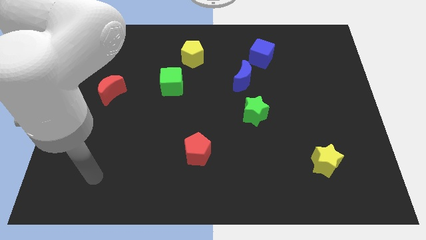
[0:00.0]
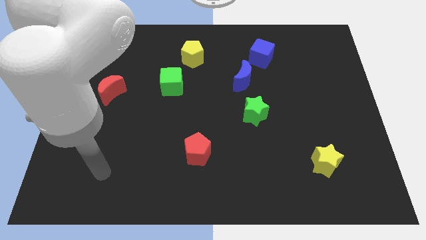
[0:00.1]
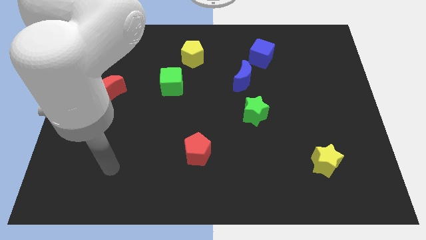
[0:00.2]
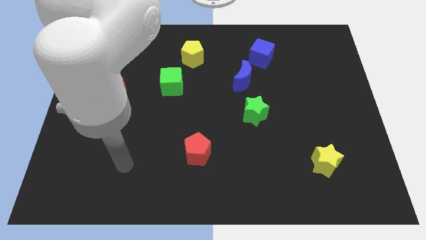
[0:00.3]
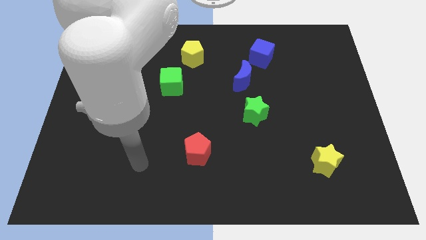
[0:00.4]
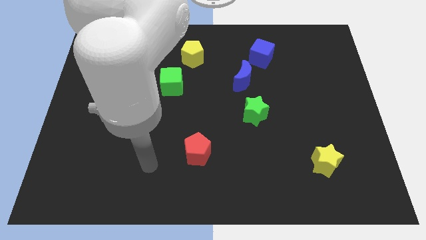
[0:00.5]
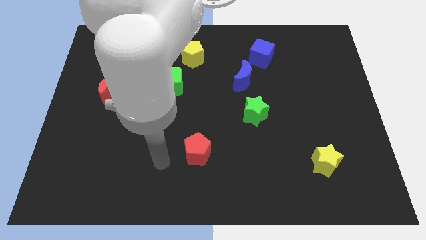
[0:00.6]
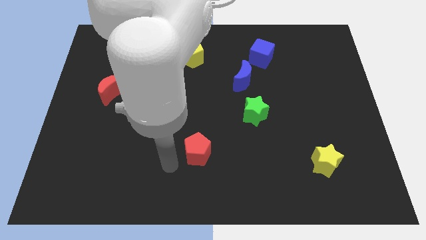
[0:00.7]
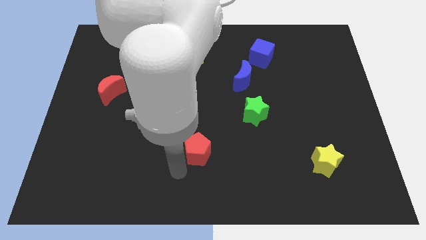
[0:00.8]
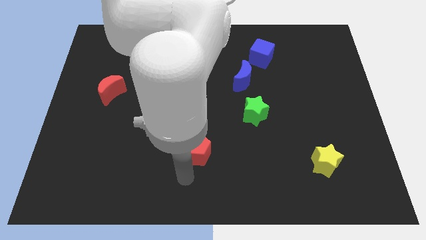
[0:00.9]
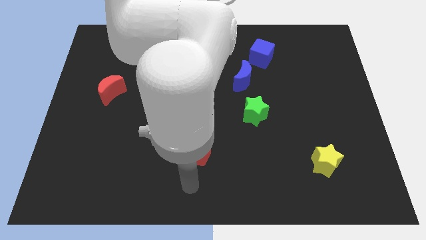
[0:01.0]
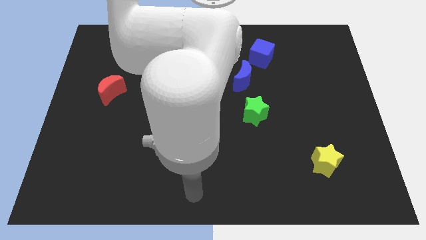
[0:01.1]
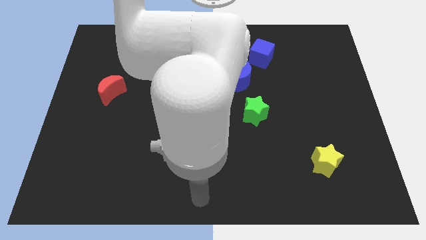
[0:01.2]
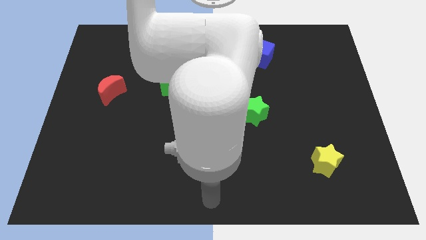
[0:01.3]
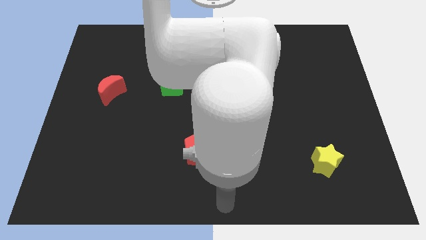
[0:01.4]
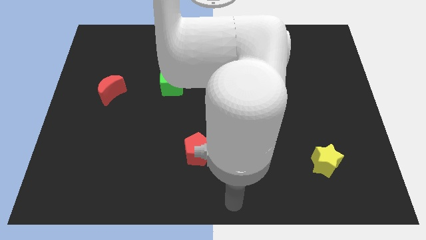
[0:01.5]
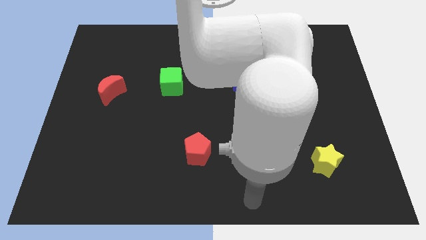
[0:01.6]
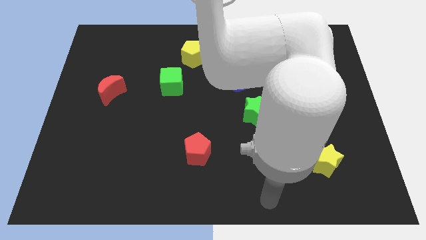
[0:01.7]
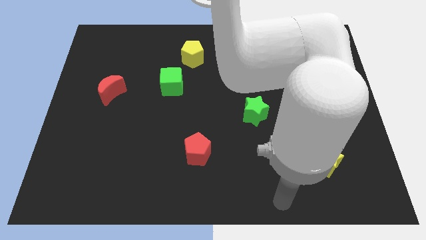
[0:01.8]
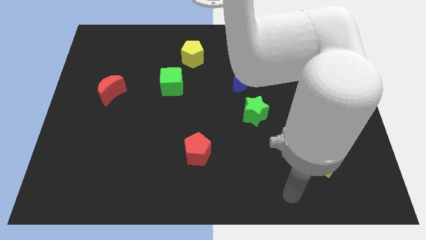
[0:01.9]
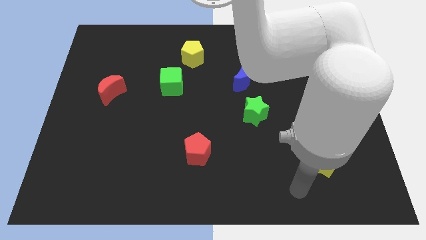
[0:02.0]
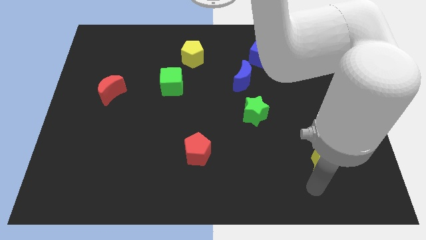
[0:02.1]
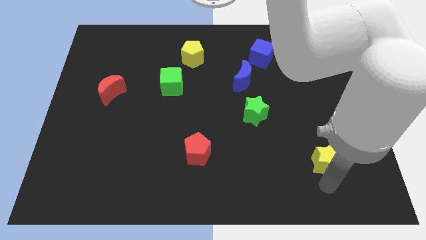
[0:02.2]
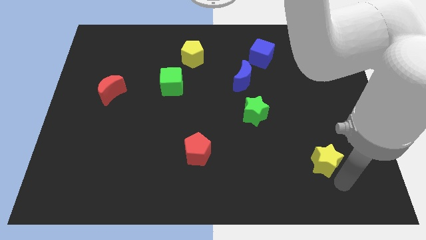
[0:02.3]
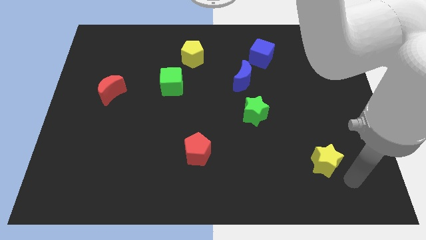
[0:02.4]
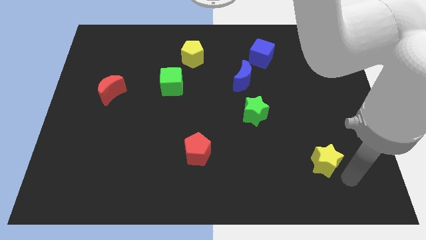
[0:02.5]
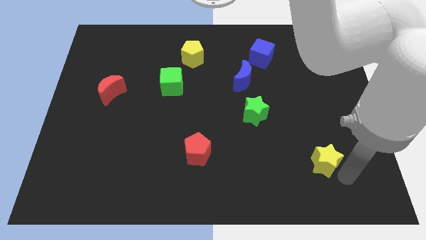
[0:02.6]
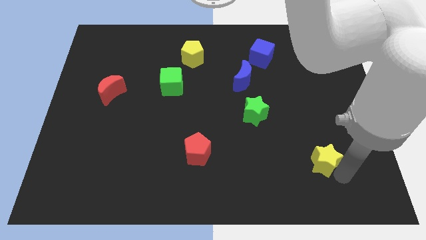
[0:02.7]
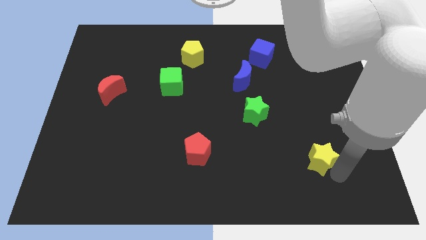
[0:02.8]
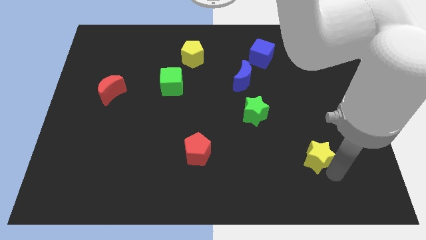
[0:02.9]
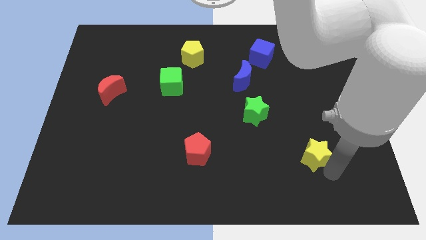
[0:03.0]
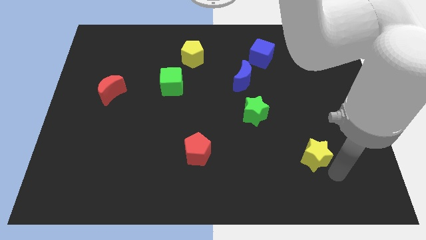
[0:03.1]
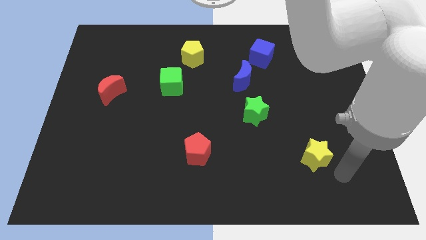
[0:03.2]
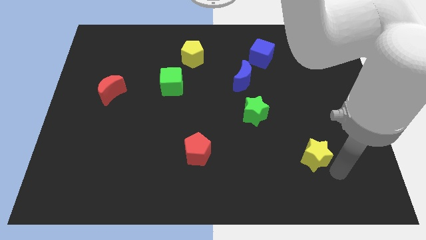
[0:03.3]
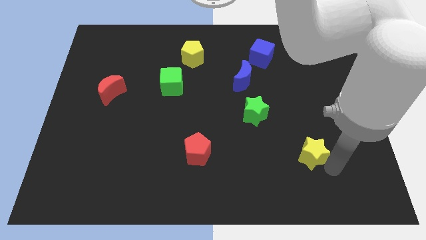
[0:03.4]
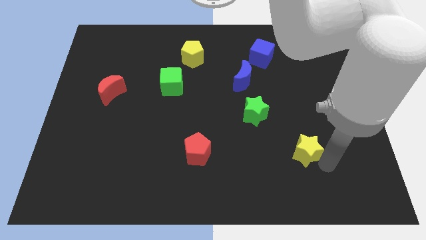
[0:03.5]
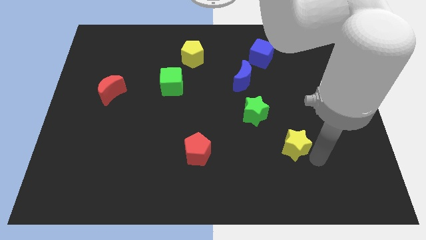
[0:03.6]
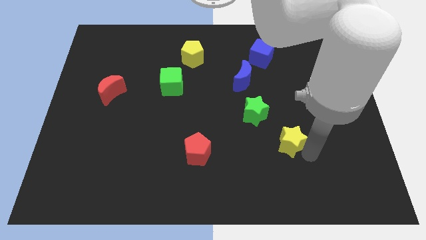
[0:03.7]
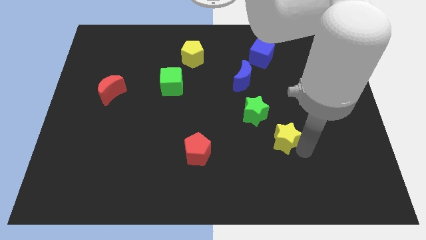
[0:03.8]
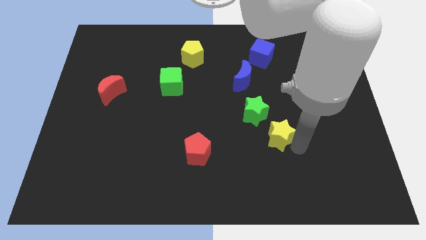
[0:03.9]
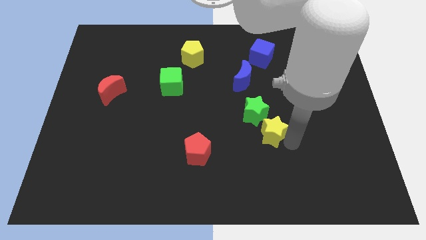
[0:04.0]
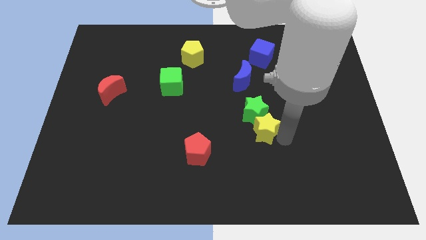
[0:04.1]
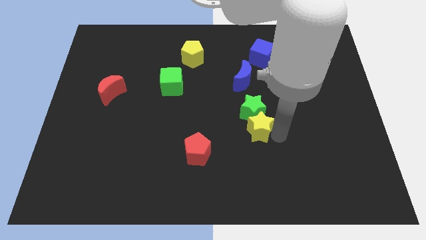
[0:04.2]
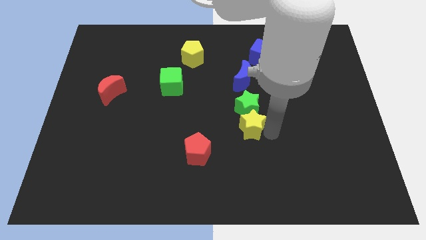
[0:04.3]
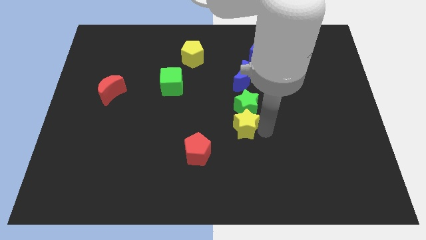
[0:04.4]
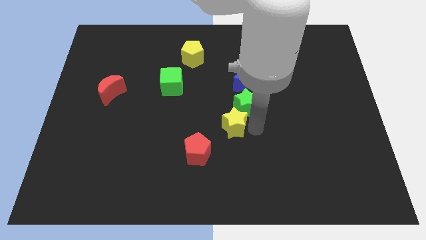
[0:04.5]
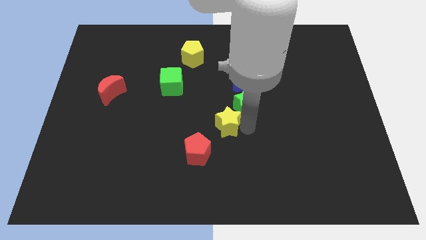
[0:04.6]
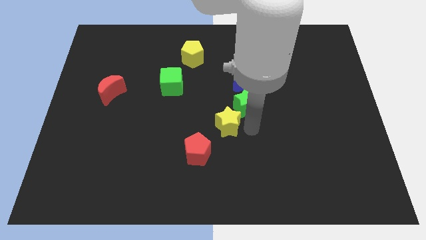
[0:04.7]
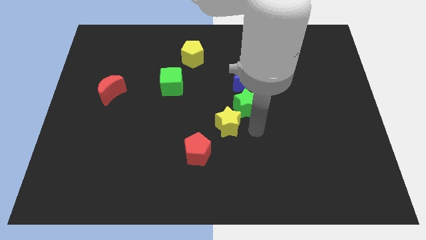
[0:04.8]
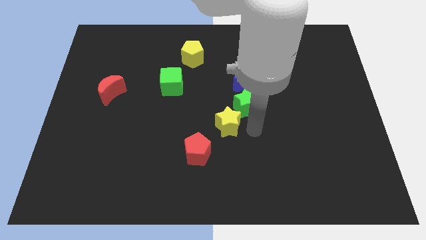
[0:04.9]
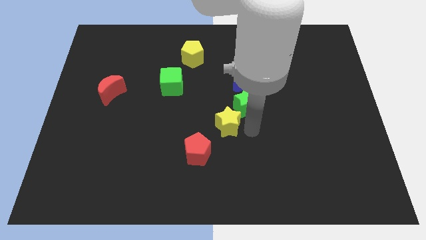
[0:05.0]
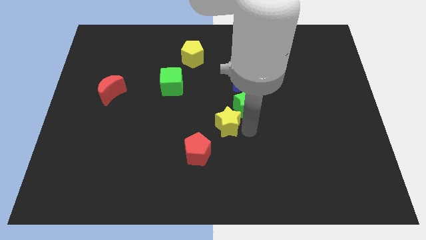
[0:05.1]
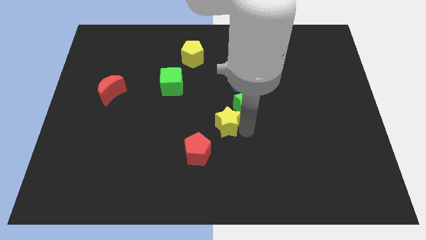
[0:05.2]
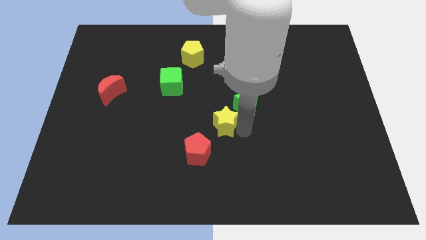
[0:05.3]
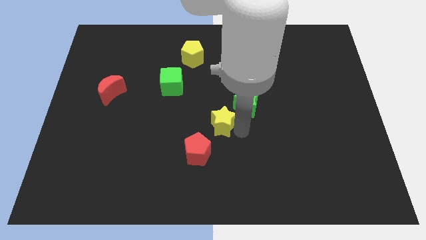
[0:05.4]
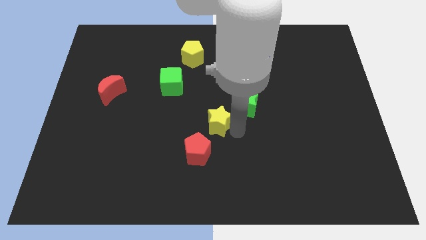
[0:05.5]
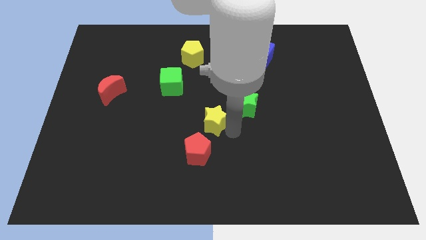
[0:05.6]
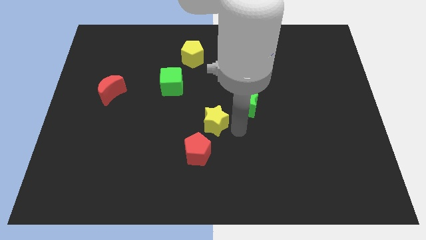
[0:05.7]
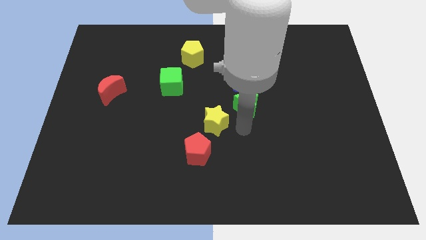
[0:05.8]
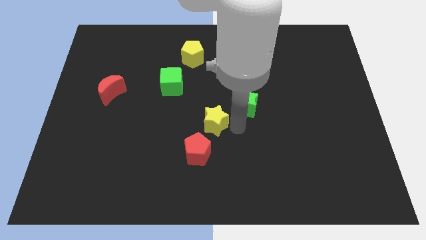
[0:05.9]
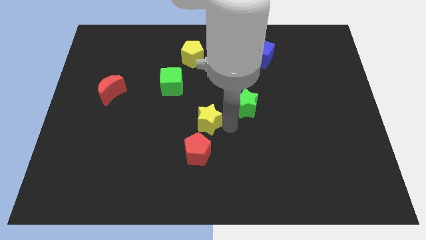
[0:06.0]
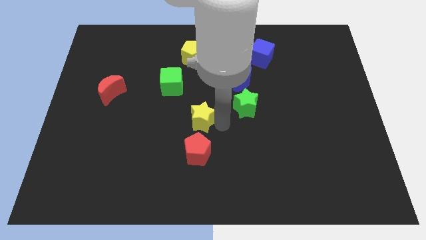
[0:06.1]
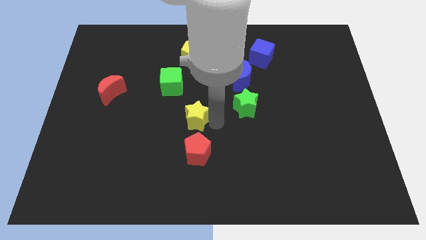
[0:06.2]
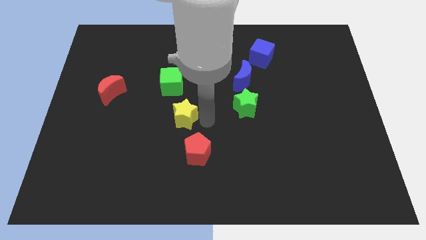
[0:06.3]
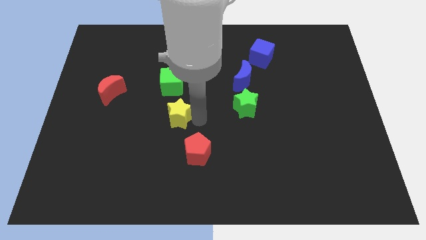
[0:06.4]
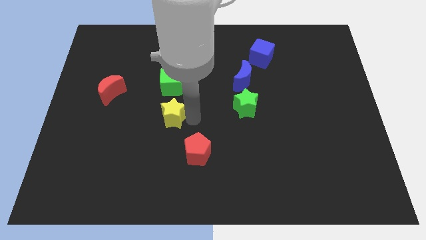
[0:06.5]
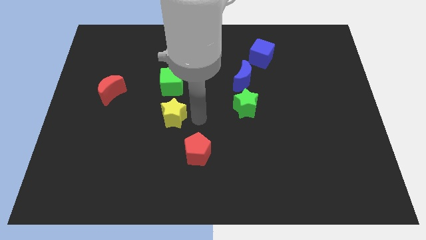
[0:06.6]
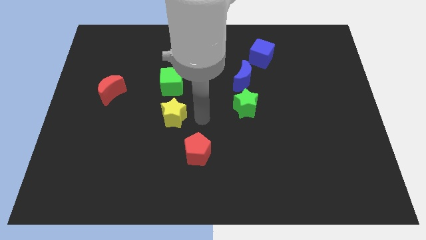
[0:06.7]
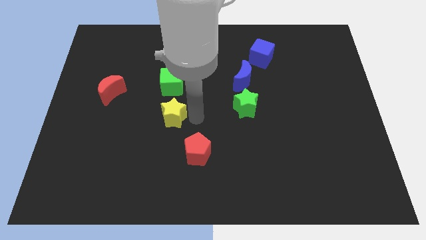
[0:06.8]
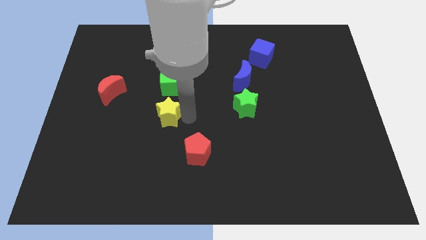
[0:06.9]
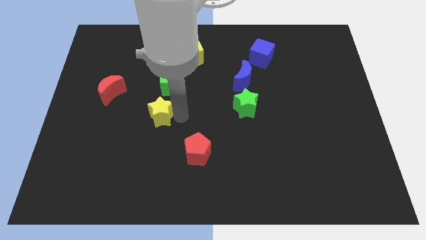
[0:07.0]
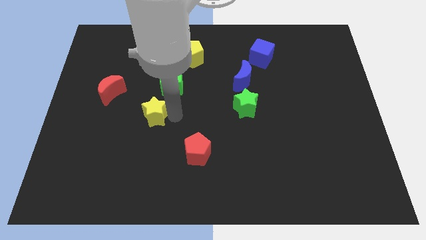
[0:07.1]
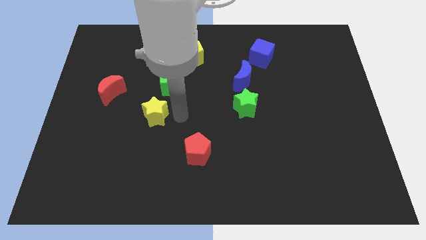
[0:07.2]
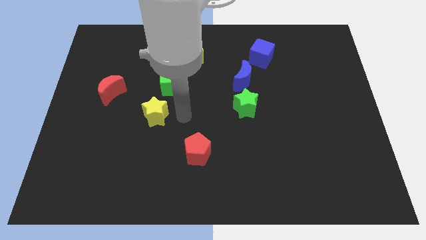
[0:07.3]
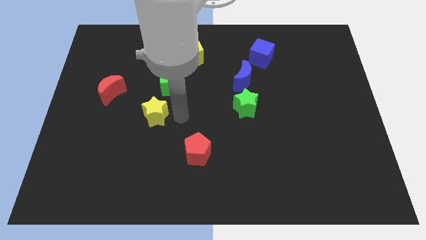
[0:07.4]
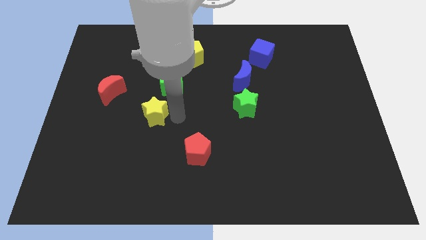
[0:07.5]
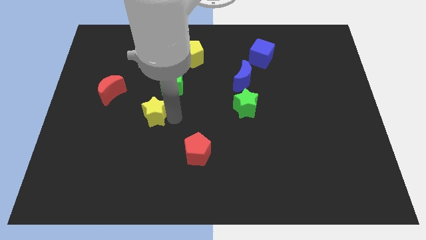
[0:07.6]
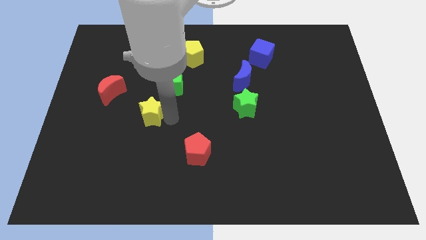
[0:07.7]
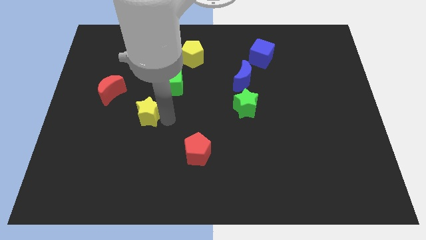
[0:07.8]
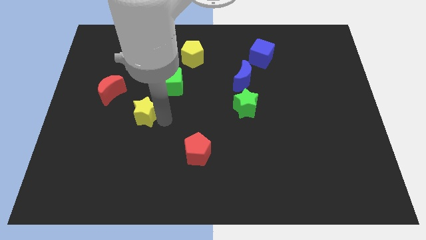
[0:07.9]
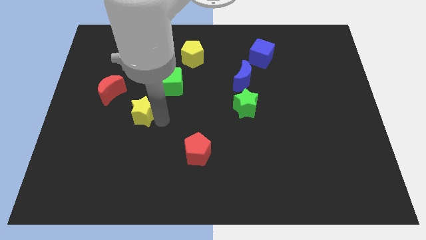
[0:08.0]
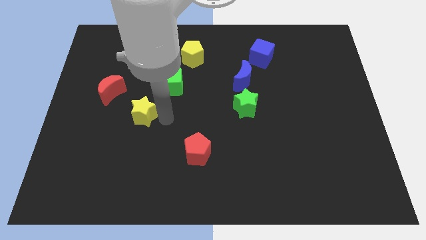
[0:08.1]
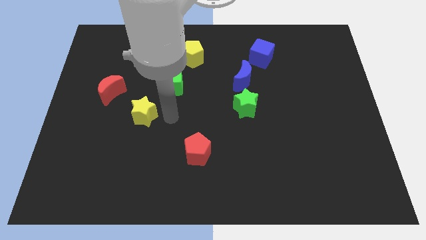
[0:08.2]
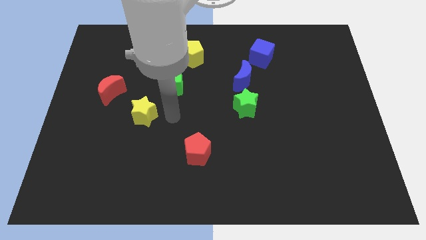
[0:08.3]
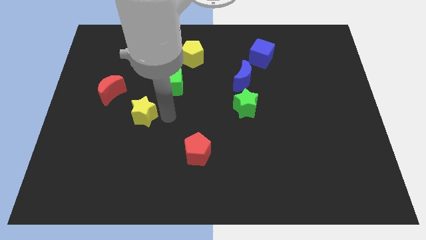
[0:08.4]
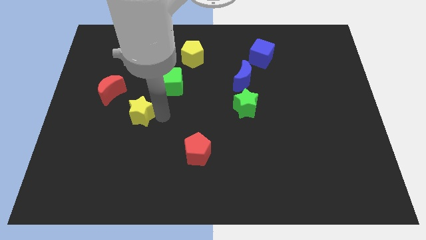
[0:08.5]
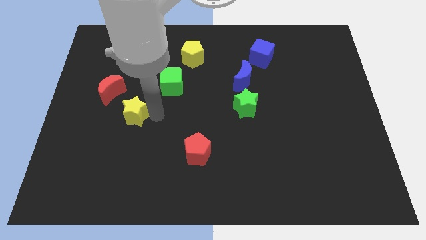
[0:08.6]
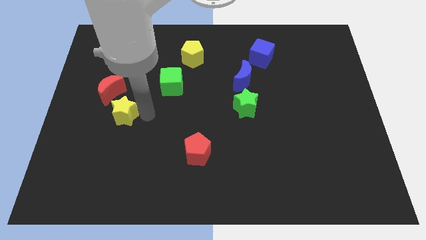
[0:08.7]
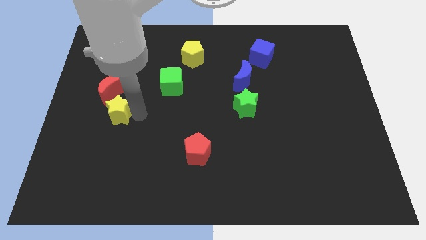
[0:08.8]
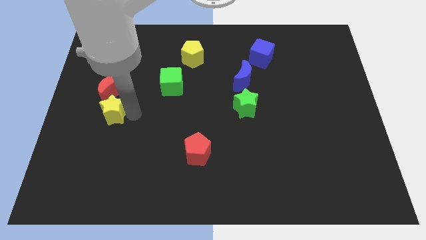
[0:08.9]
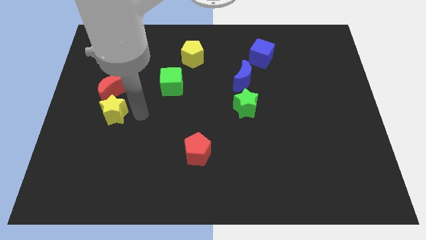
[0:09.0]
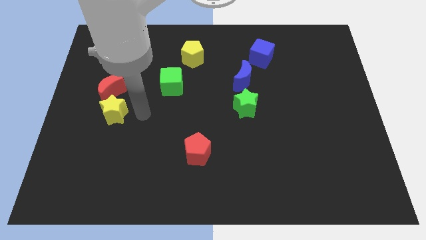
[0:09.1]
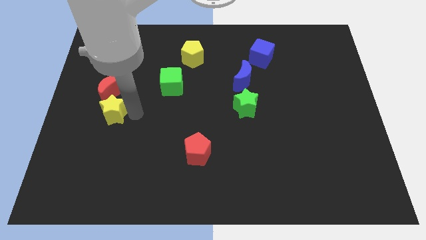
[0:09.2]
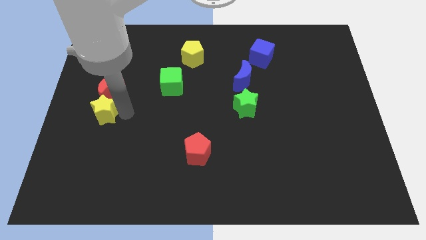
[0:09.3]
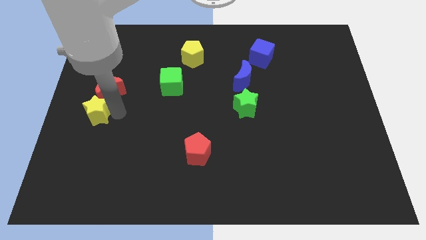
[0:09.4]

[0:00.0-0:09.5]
move the yellow star to the left side
